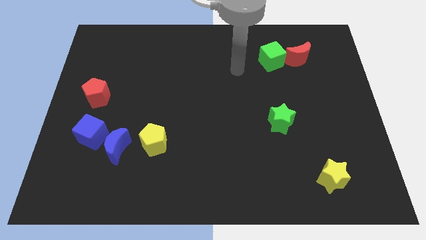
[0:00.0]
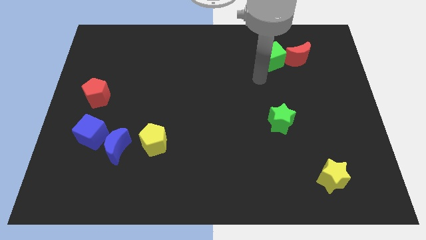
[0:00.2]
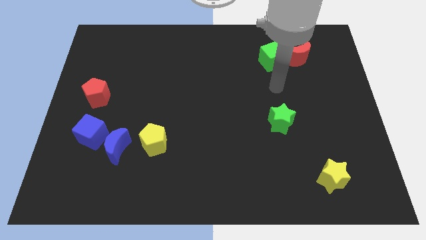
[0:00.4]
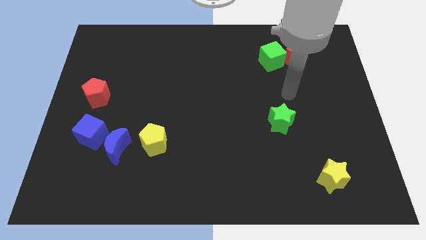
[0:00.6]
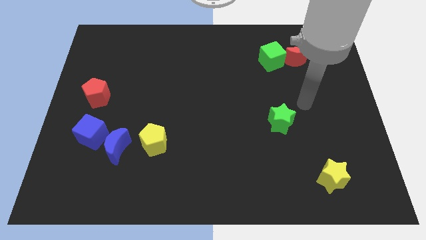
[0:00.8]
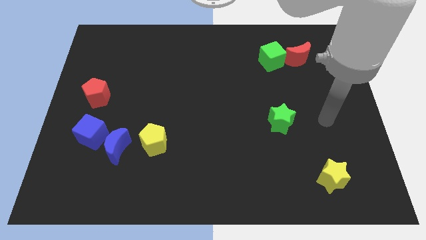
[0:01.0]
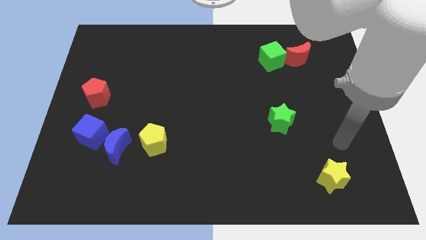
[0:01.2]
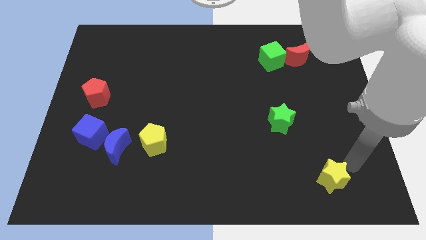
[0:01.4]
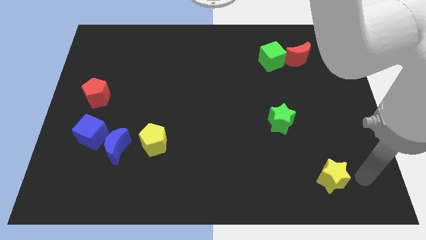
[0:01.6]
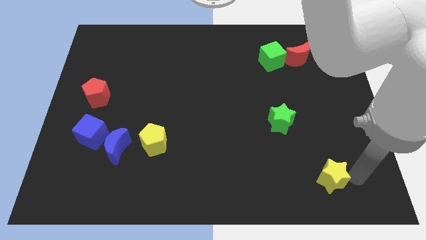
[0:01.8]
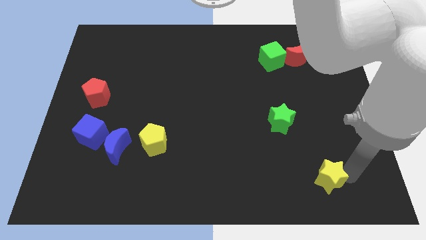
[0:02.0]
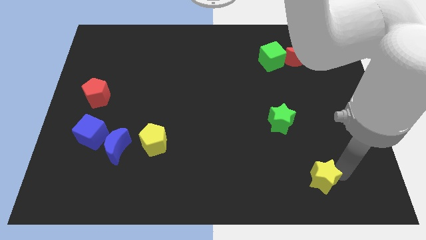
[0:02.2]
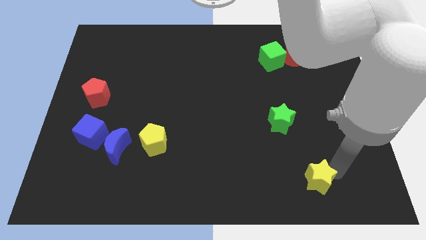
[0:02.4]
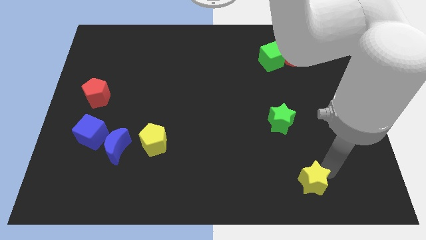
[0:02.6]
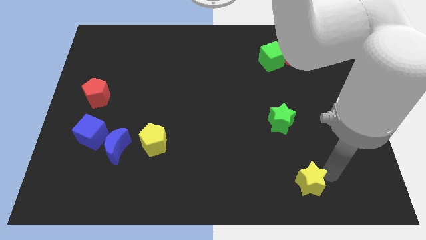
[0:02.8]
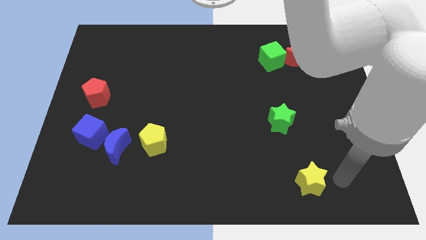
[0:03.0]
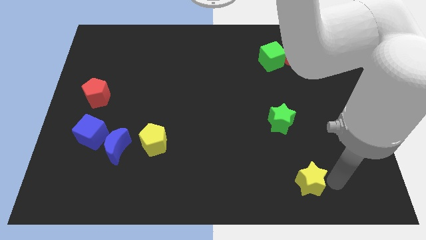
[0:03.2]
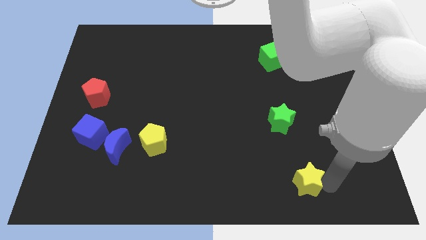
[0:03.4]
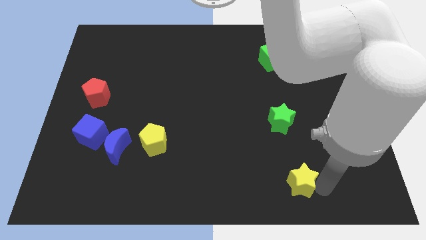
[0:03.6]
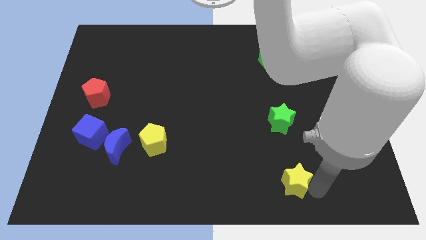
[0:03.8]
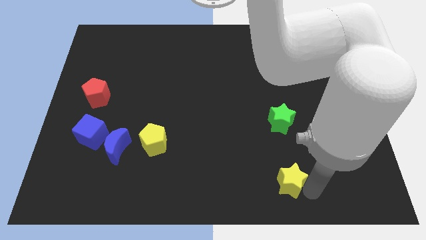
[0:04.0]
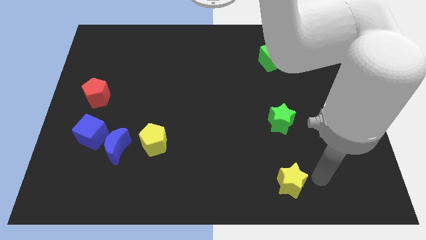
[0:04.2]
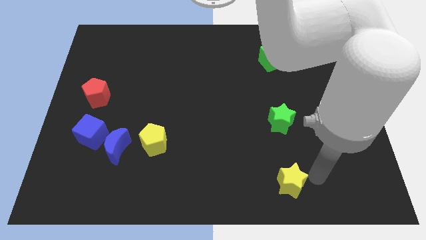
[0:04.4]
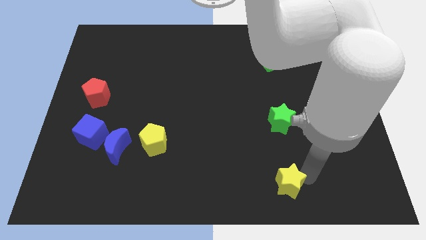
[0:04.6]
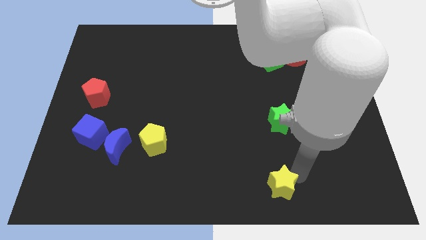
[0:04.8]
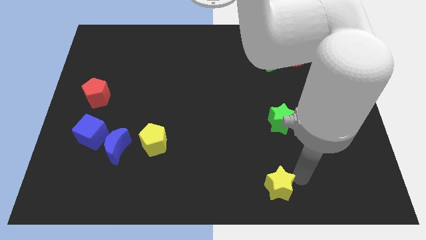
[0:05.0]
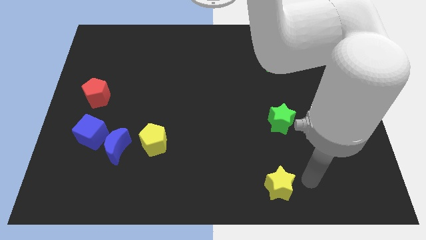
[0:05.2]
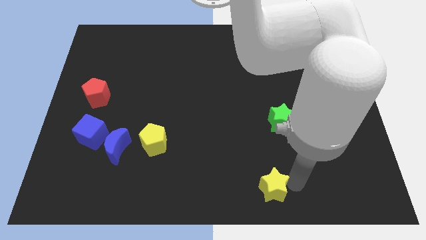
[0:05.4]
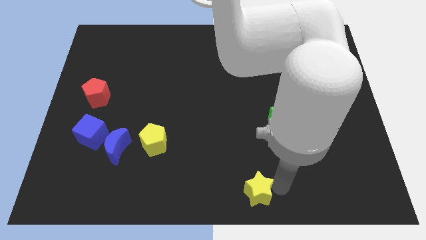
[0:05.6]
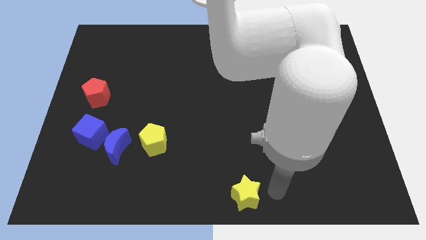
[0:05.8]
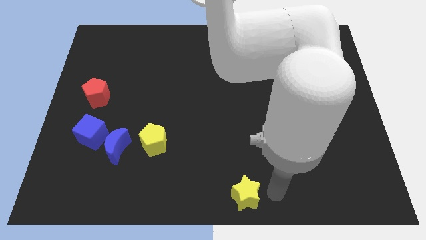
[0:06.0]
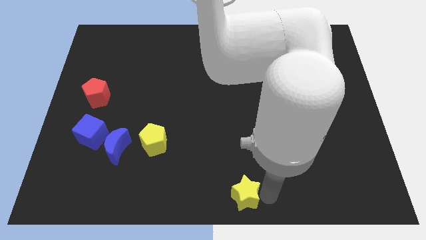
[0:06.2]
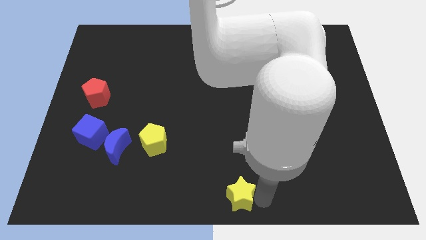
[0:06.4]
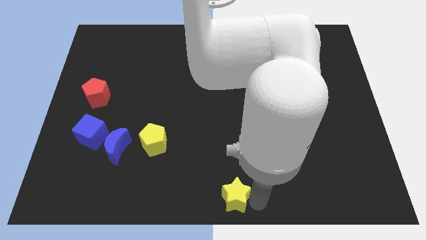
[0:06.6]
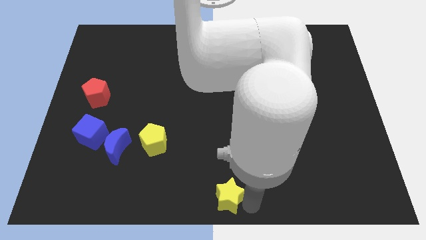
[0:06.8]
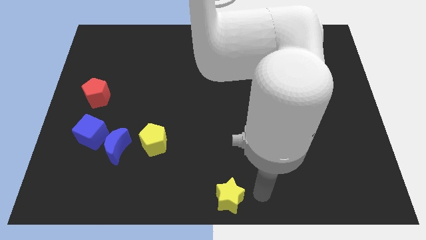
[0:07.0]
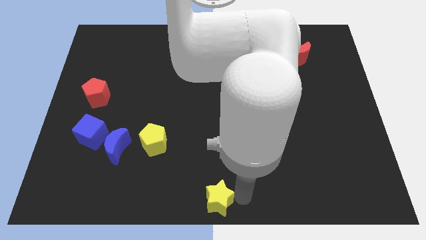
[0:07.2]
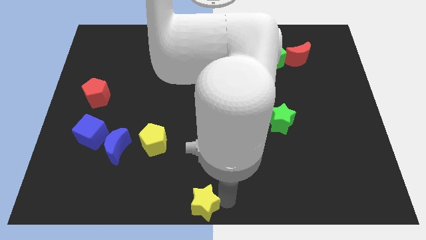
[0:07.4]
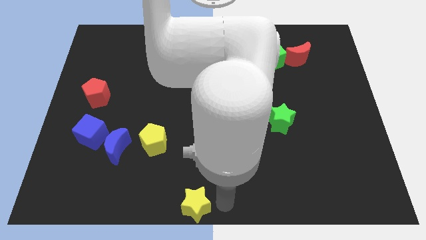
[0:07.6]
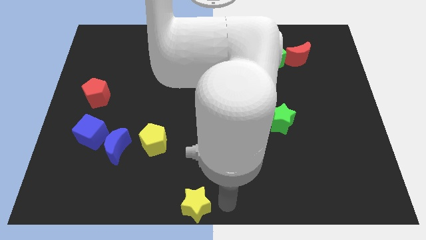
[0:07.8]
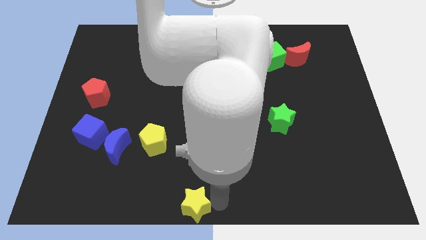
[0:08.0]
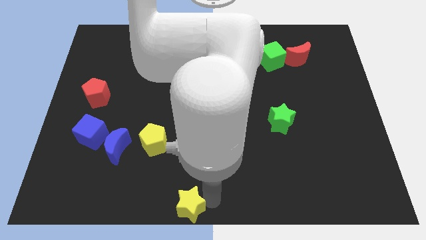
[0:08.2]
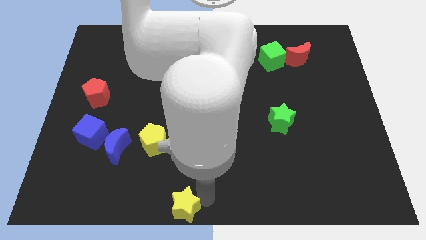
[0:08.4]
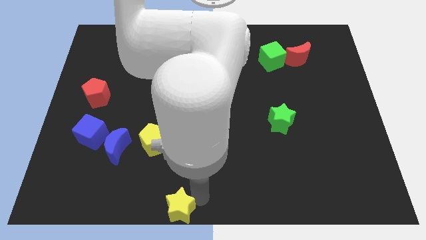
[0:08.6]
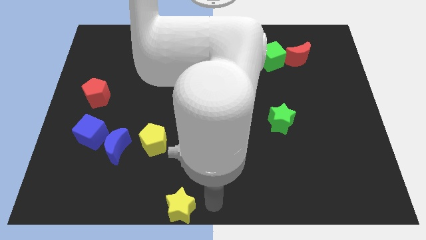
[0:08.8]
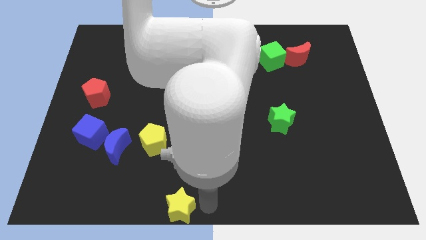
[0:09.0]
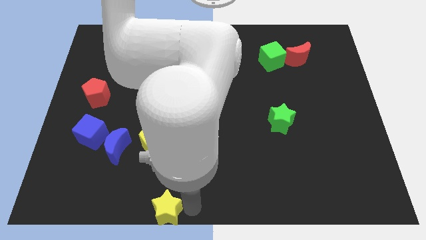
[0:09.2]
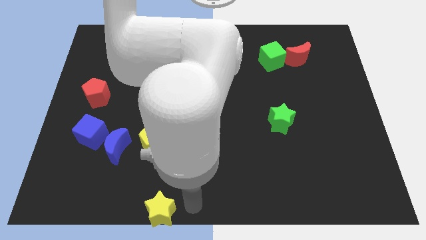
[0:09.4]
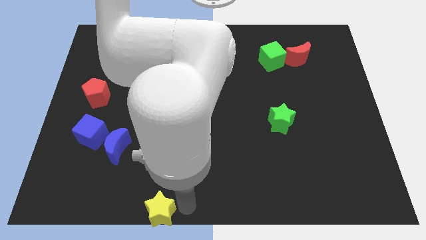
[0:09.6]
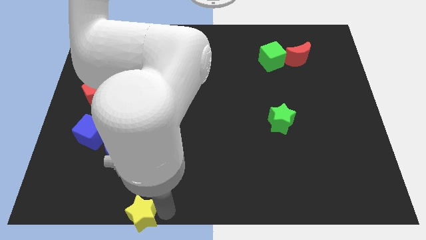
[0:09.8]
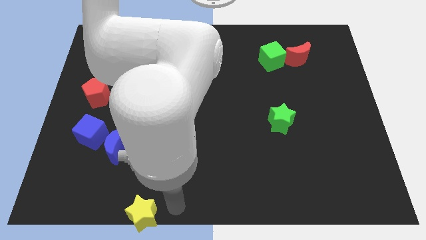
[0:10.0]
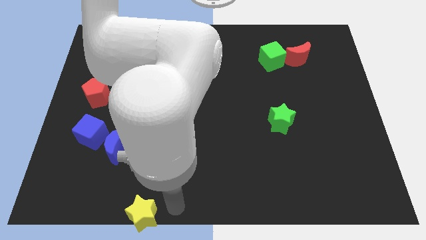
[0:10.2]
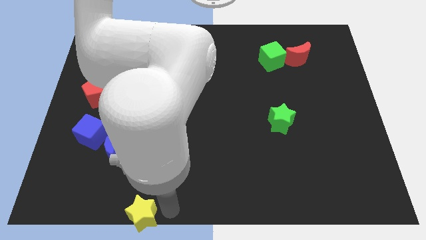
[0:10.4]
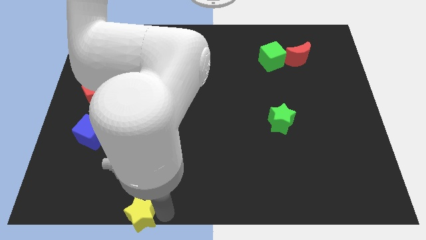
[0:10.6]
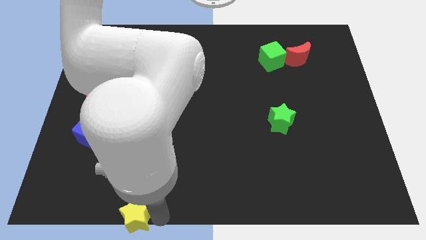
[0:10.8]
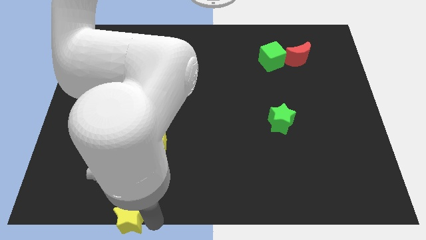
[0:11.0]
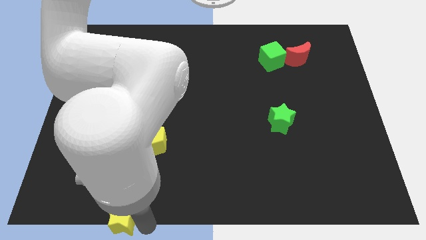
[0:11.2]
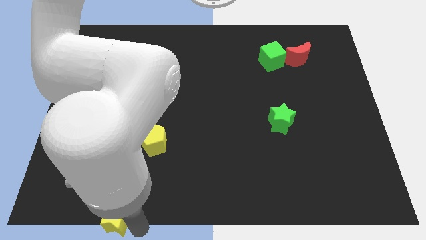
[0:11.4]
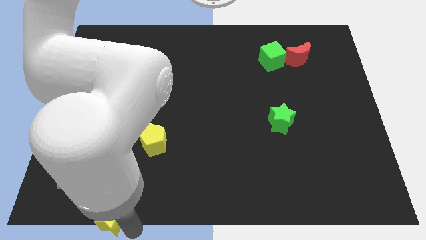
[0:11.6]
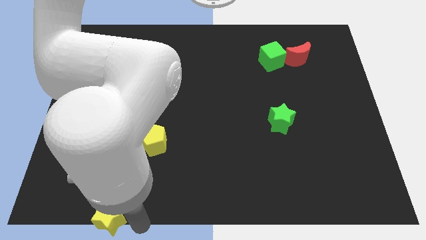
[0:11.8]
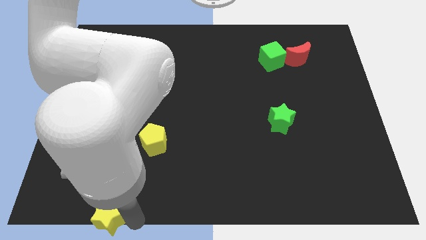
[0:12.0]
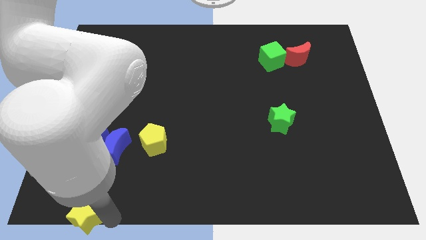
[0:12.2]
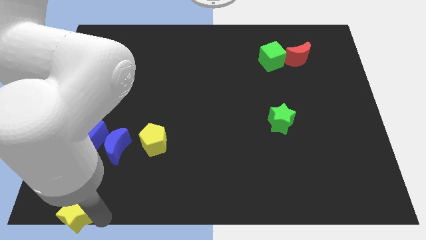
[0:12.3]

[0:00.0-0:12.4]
move the yellow star to the bottom left corner
